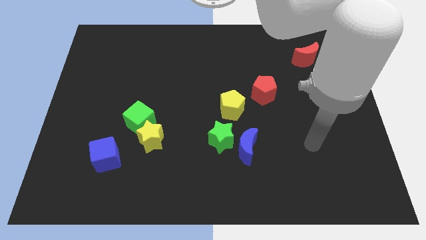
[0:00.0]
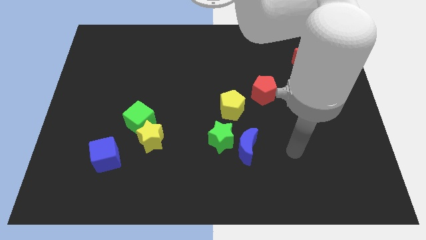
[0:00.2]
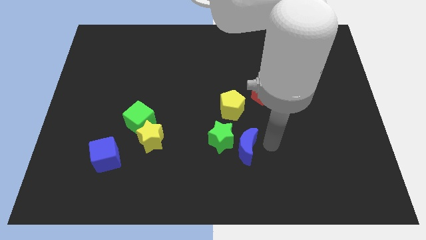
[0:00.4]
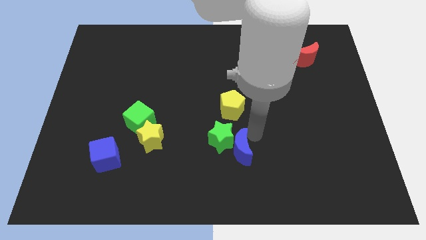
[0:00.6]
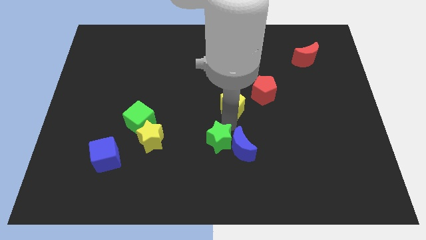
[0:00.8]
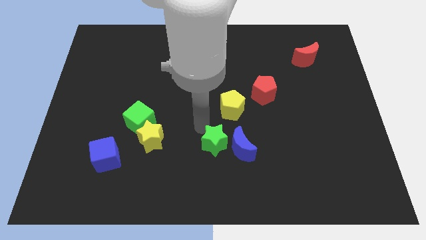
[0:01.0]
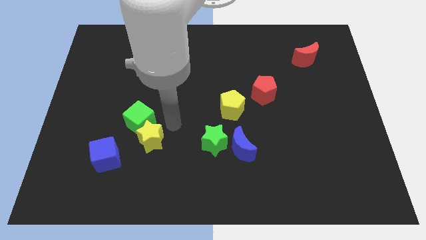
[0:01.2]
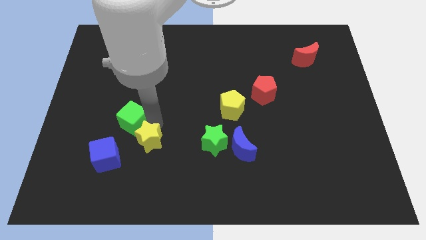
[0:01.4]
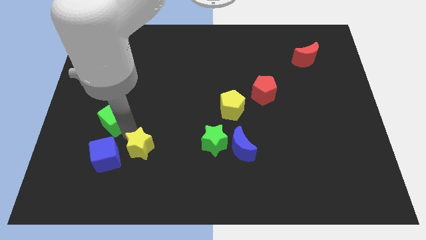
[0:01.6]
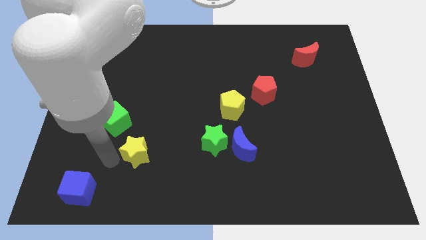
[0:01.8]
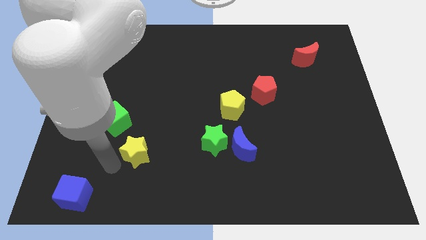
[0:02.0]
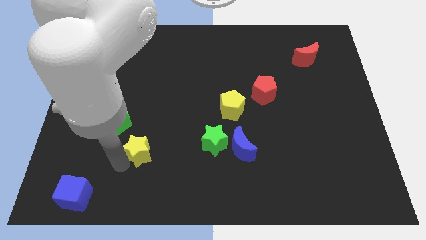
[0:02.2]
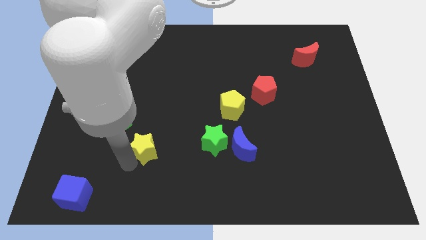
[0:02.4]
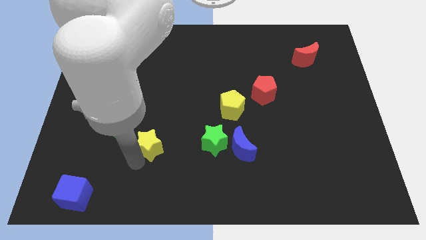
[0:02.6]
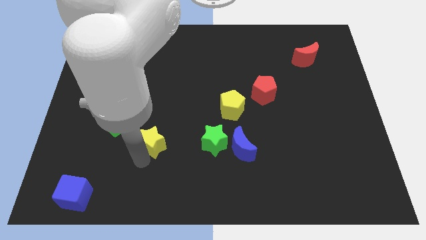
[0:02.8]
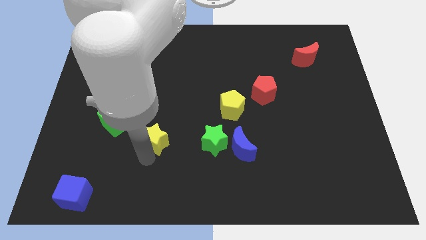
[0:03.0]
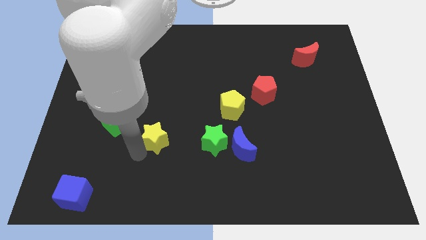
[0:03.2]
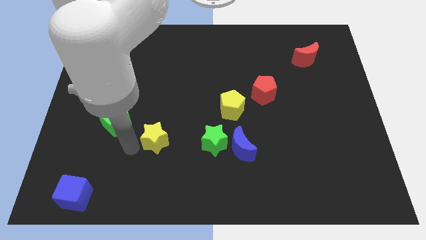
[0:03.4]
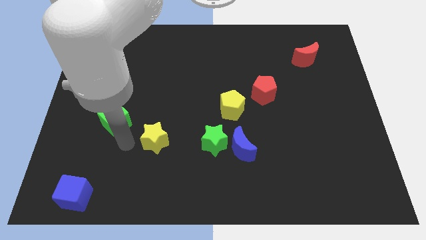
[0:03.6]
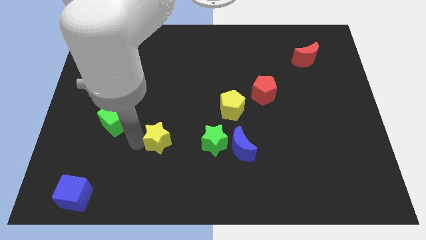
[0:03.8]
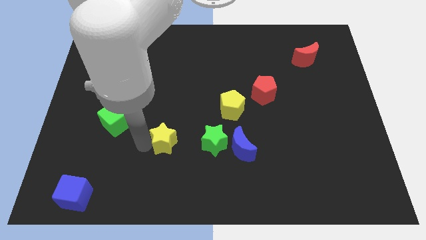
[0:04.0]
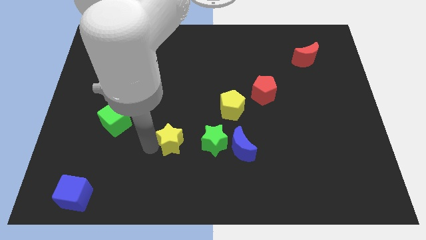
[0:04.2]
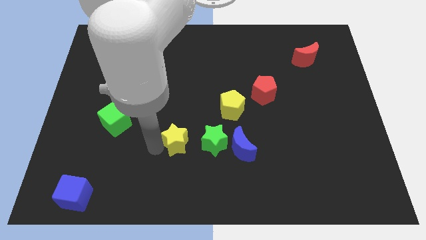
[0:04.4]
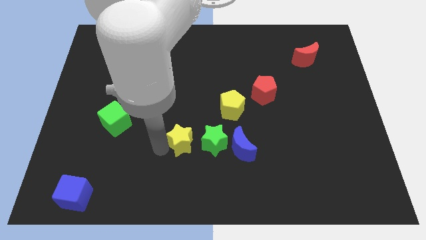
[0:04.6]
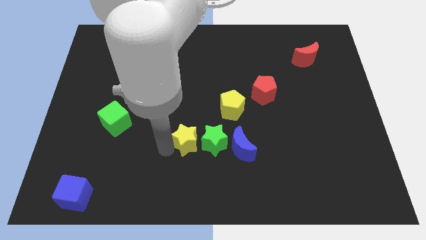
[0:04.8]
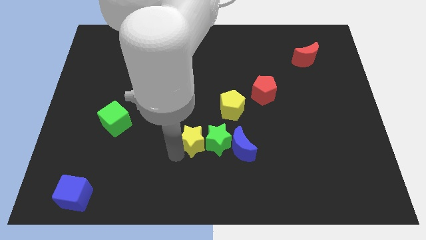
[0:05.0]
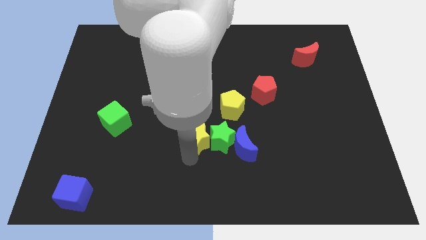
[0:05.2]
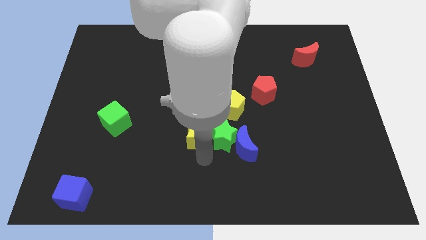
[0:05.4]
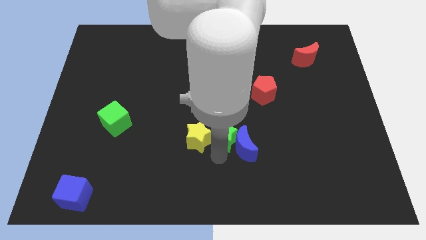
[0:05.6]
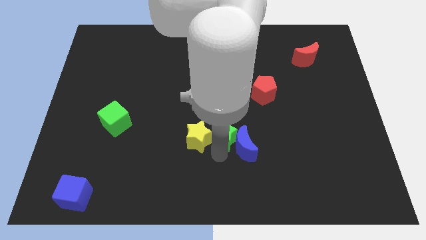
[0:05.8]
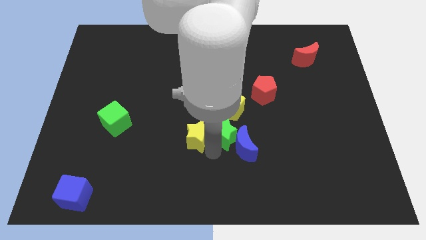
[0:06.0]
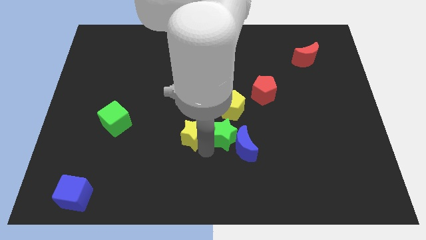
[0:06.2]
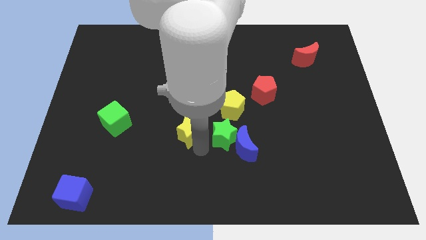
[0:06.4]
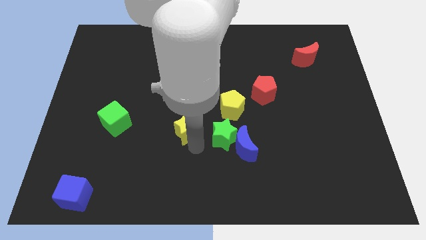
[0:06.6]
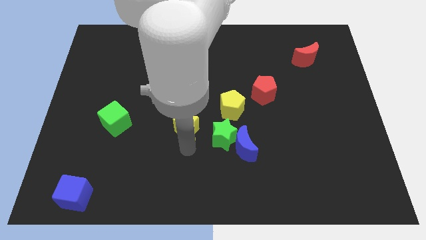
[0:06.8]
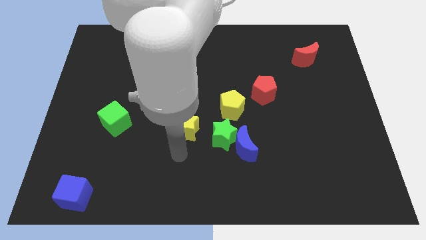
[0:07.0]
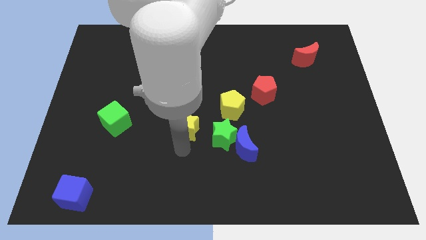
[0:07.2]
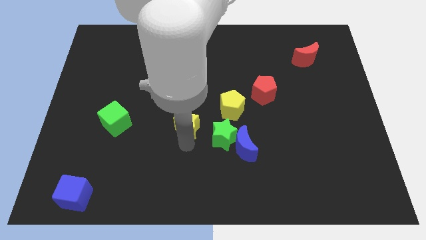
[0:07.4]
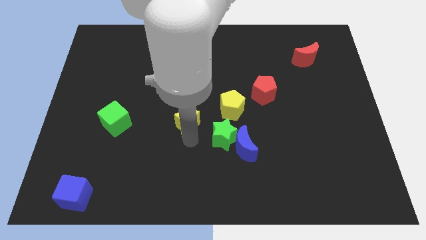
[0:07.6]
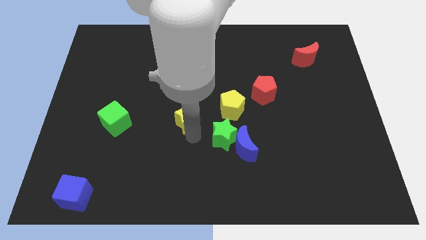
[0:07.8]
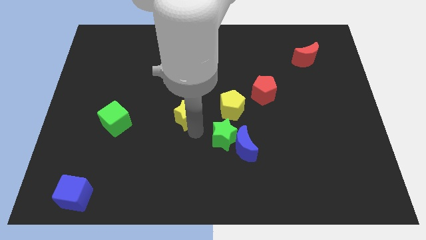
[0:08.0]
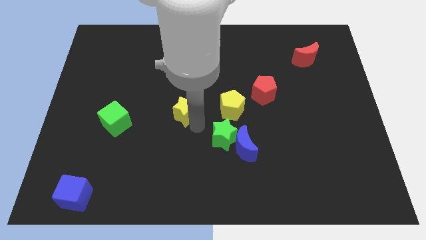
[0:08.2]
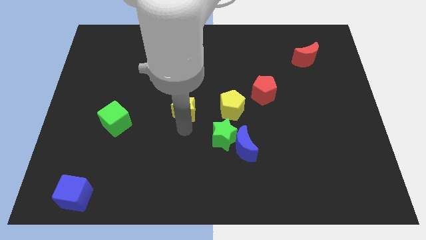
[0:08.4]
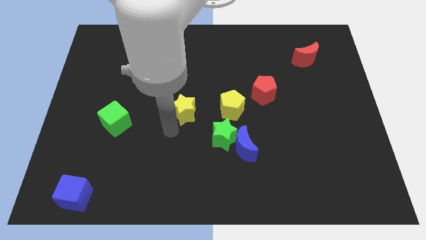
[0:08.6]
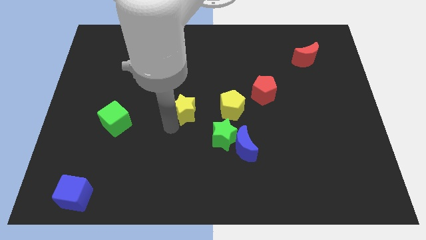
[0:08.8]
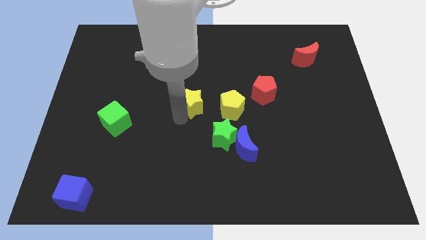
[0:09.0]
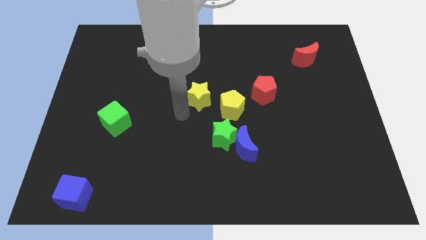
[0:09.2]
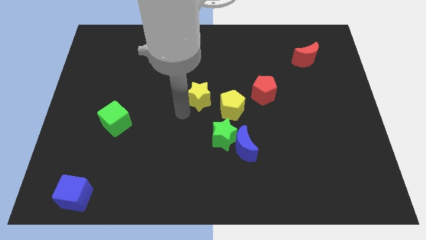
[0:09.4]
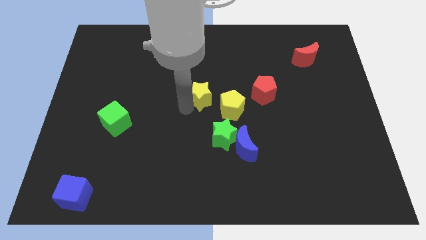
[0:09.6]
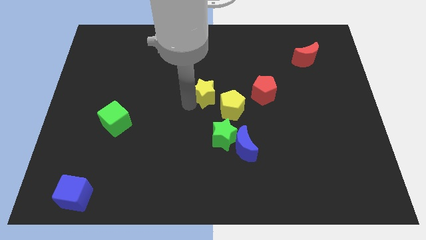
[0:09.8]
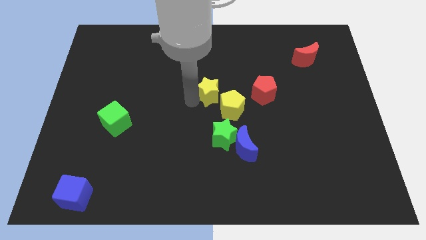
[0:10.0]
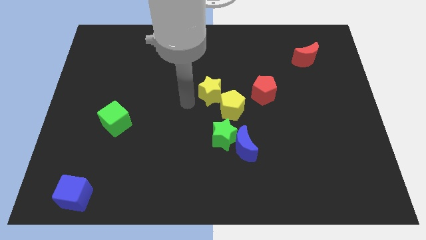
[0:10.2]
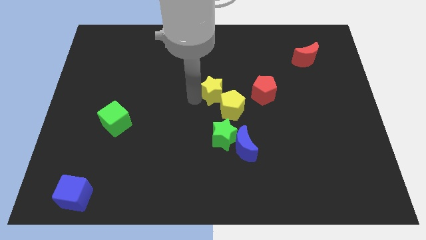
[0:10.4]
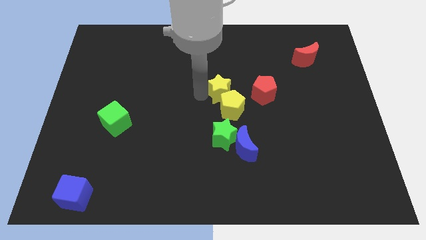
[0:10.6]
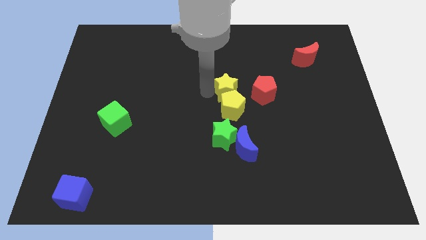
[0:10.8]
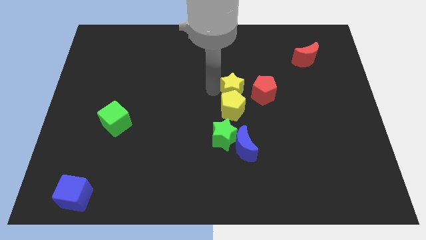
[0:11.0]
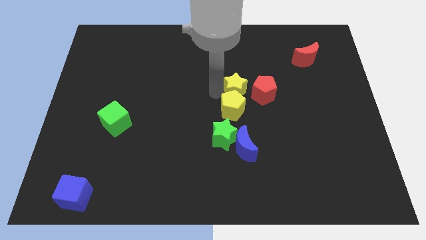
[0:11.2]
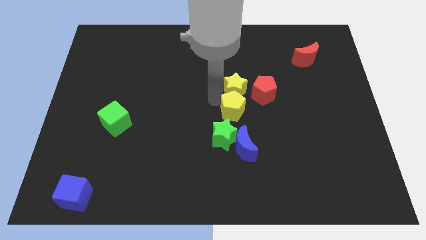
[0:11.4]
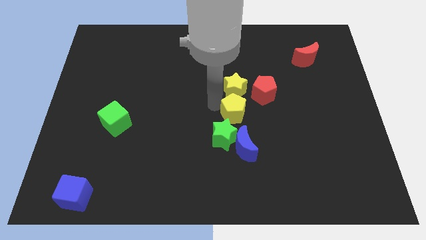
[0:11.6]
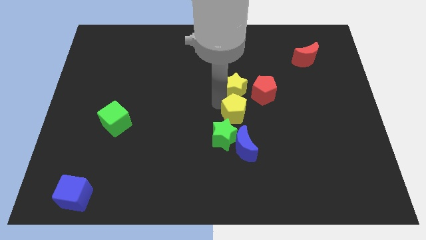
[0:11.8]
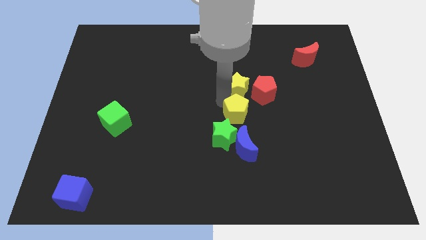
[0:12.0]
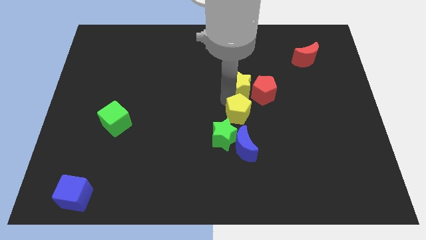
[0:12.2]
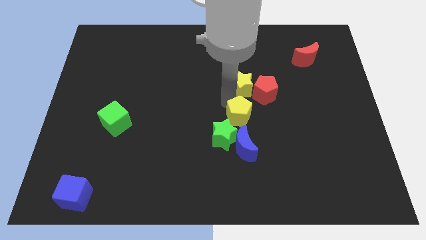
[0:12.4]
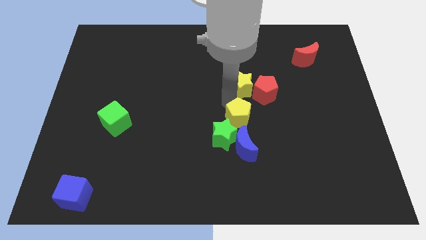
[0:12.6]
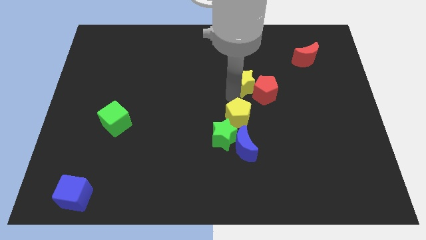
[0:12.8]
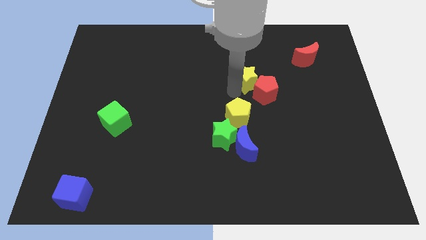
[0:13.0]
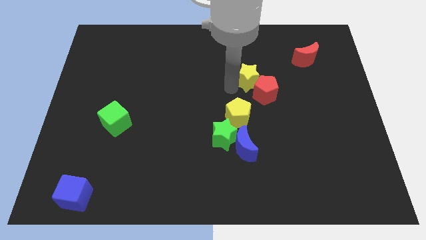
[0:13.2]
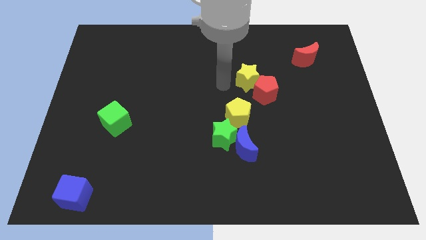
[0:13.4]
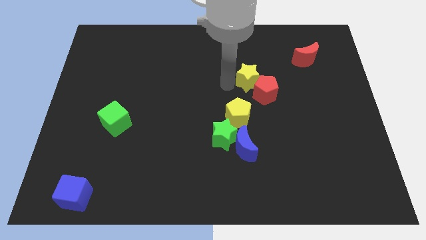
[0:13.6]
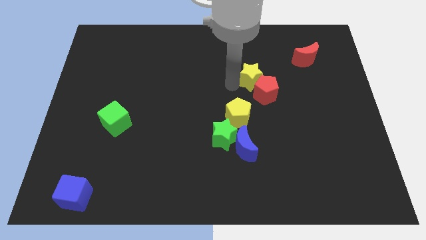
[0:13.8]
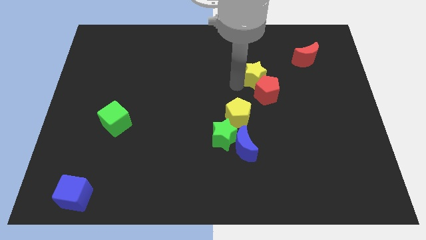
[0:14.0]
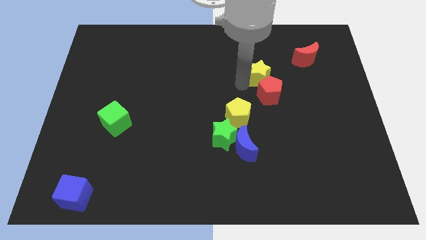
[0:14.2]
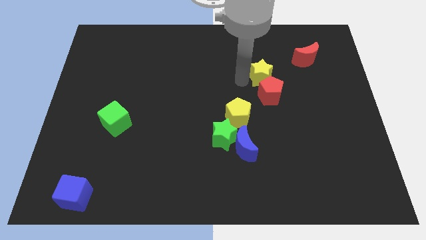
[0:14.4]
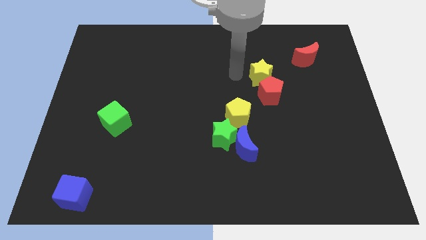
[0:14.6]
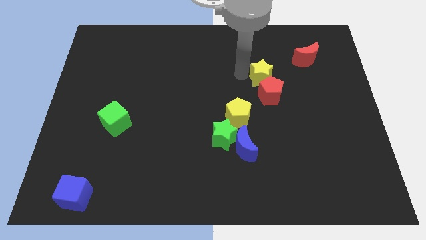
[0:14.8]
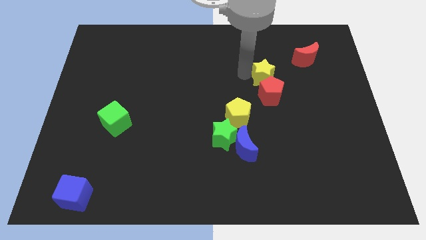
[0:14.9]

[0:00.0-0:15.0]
move the yellow star diagonally up and to the right of the red pentagon
